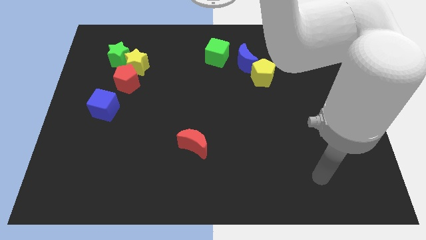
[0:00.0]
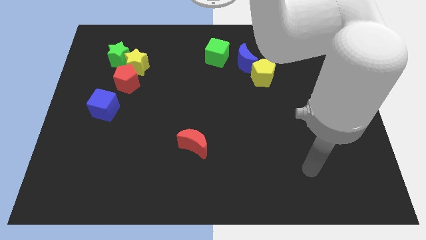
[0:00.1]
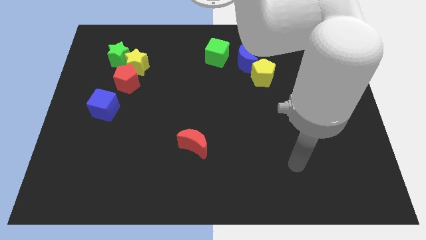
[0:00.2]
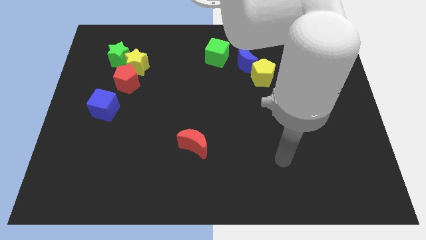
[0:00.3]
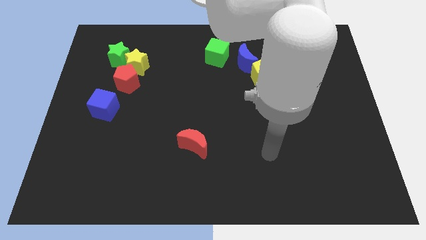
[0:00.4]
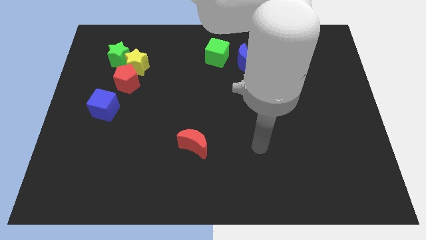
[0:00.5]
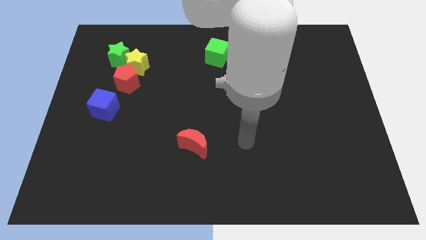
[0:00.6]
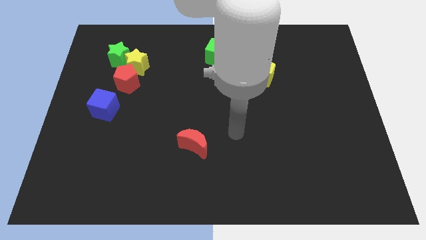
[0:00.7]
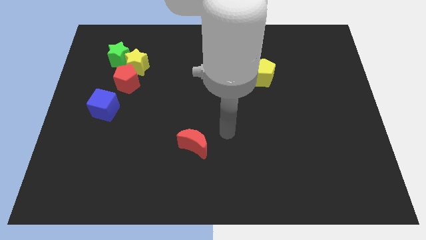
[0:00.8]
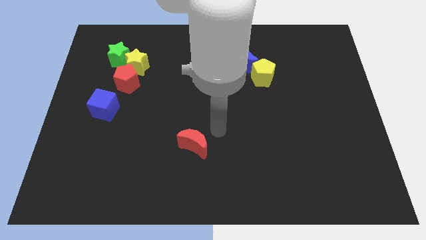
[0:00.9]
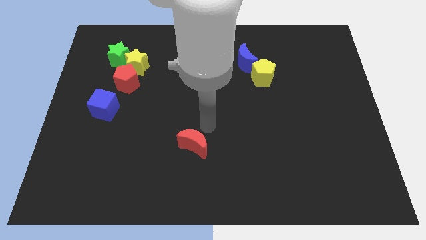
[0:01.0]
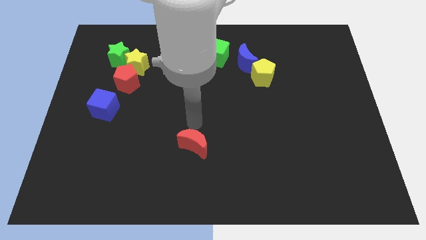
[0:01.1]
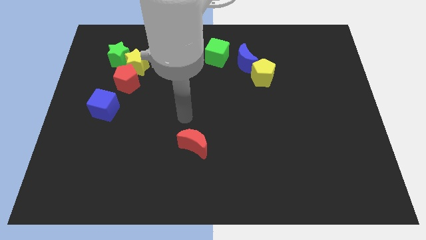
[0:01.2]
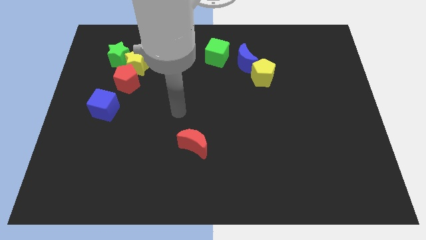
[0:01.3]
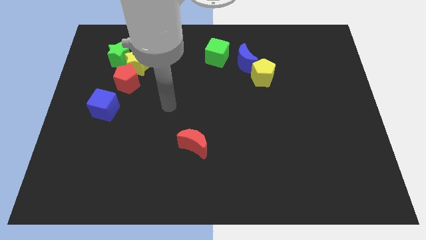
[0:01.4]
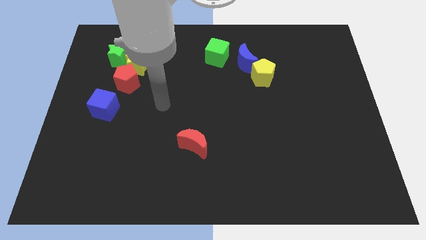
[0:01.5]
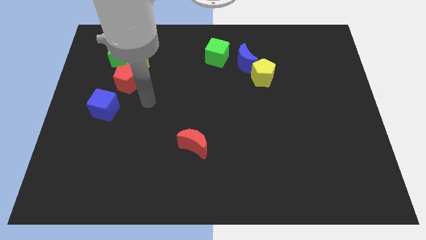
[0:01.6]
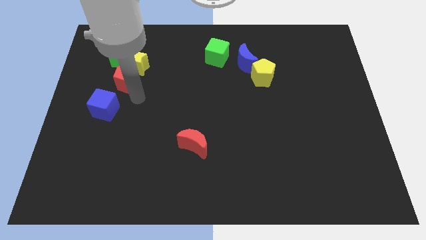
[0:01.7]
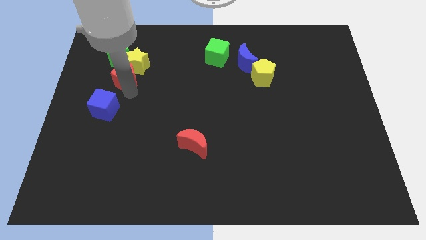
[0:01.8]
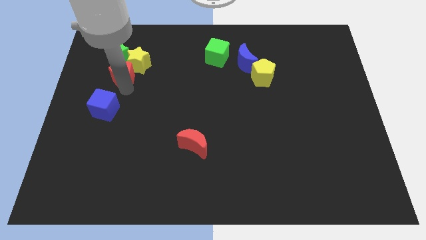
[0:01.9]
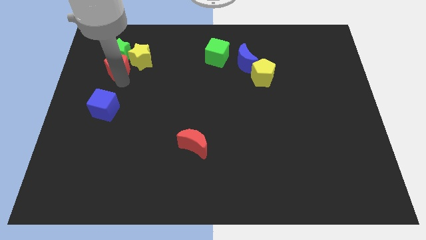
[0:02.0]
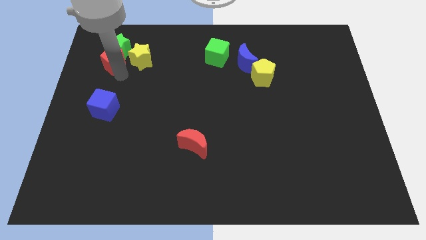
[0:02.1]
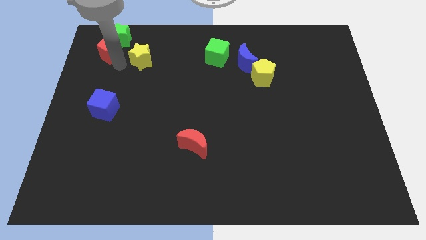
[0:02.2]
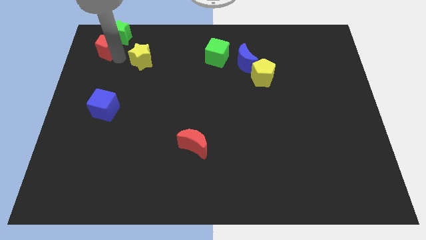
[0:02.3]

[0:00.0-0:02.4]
move the yellow star away from the red pentagon and green star

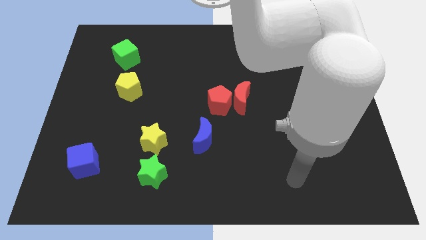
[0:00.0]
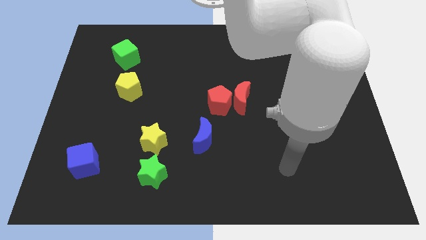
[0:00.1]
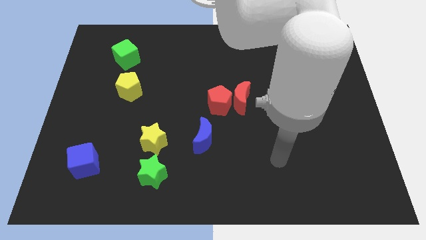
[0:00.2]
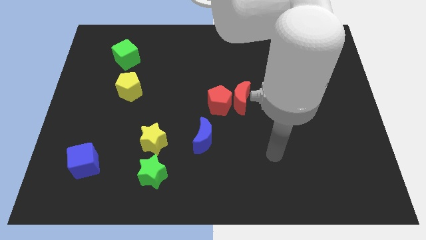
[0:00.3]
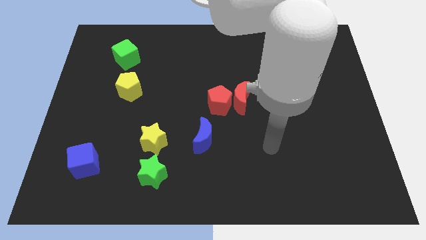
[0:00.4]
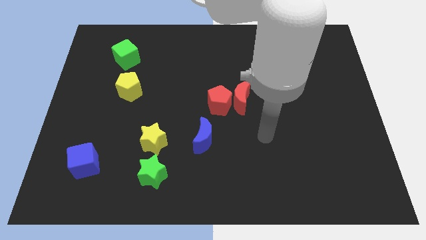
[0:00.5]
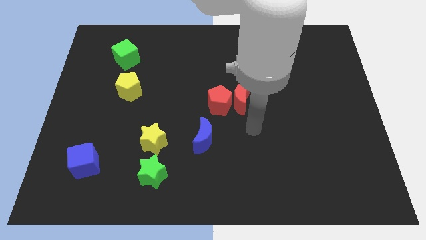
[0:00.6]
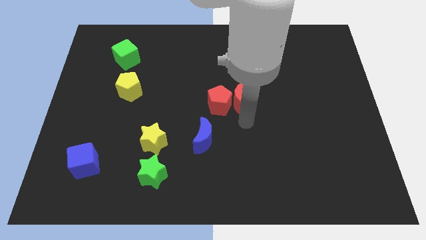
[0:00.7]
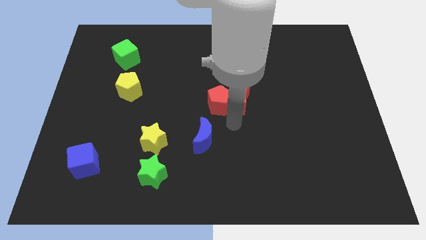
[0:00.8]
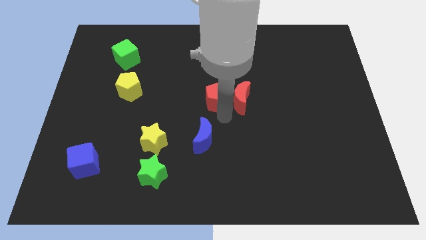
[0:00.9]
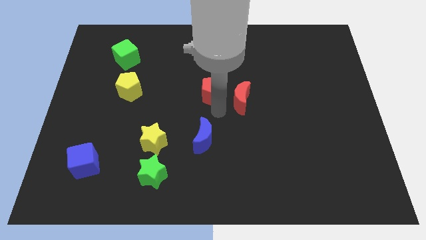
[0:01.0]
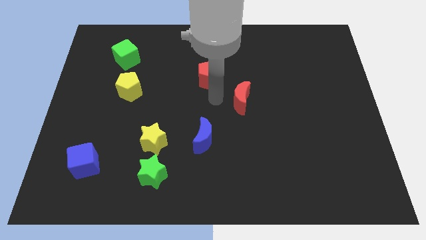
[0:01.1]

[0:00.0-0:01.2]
separate the red moon from the red pentagon

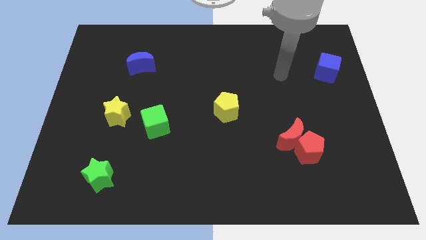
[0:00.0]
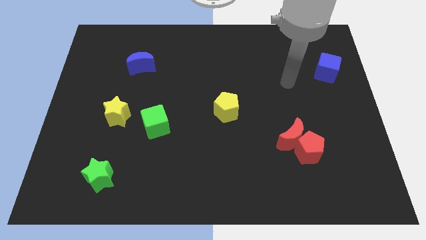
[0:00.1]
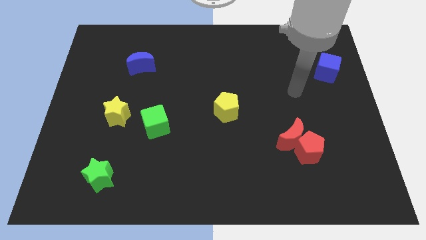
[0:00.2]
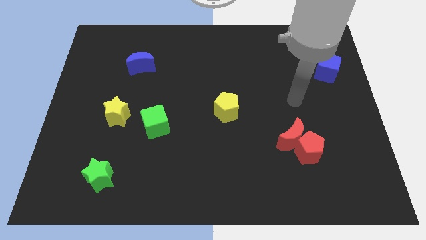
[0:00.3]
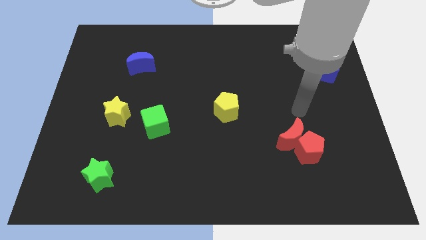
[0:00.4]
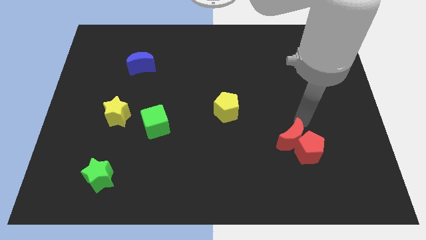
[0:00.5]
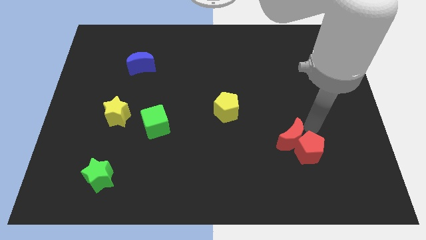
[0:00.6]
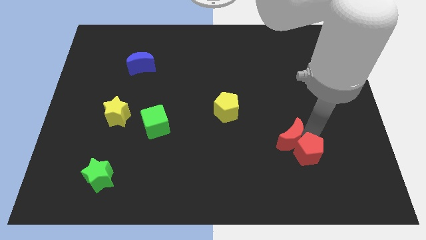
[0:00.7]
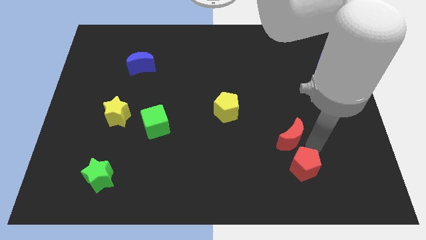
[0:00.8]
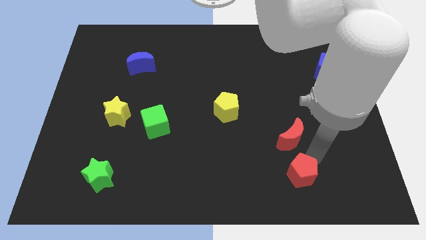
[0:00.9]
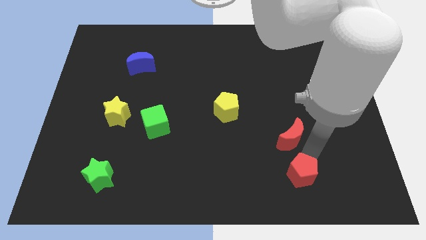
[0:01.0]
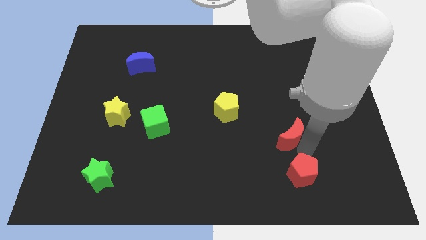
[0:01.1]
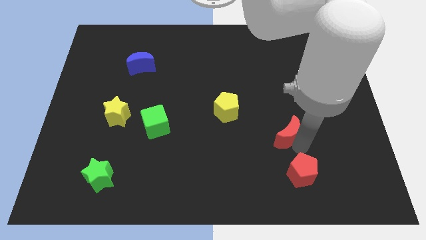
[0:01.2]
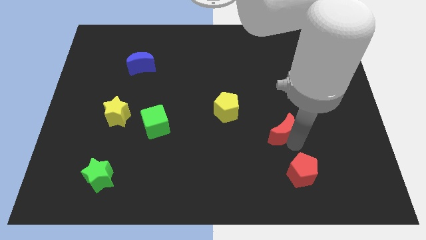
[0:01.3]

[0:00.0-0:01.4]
move the red moon away from the red pentagon

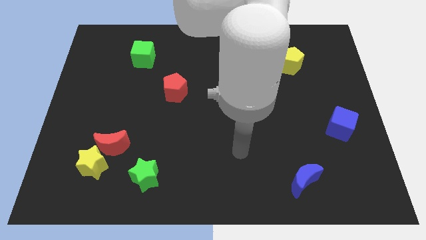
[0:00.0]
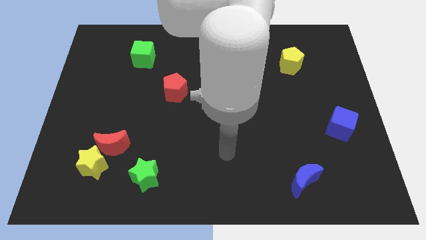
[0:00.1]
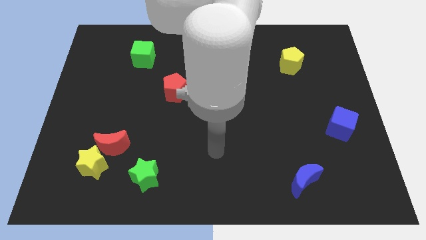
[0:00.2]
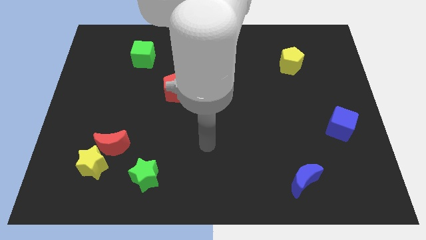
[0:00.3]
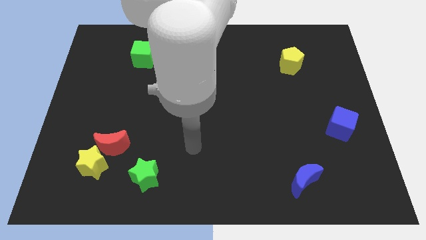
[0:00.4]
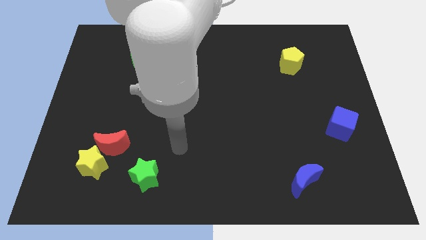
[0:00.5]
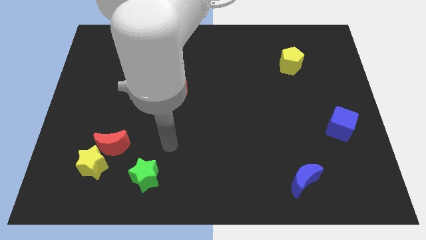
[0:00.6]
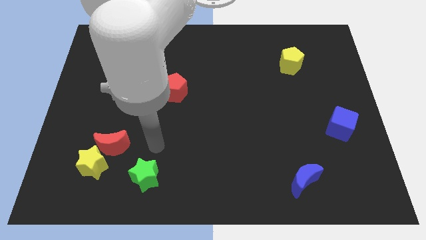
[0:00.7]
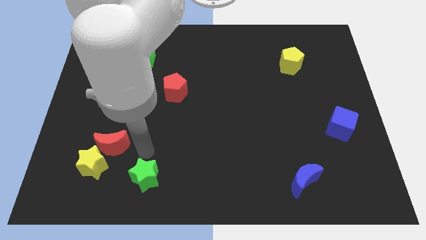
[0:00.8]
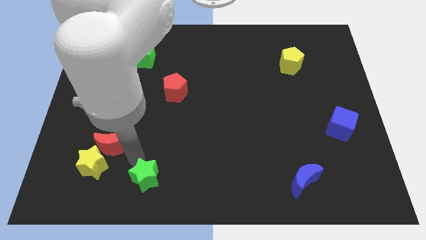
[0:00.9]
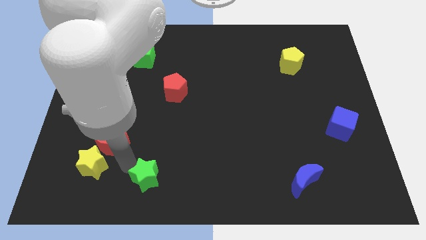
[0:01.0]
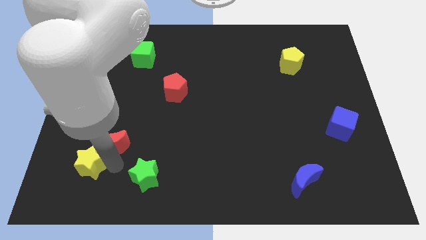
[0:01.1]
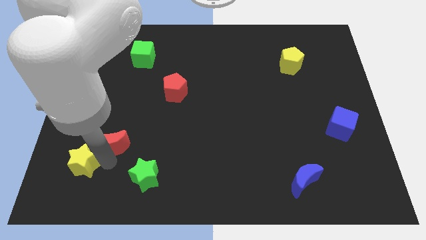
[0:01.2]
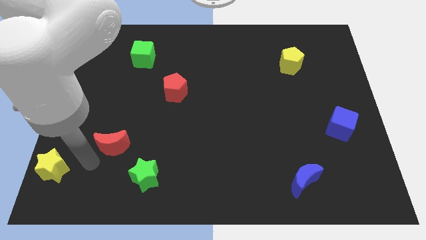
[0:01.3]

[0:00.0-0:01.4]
move the red moon away from the yellow star

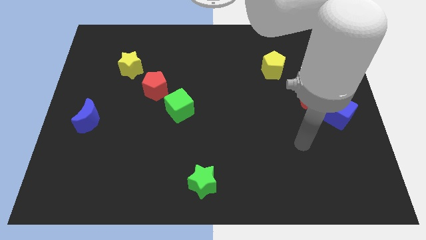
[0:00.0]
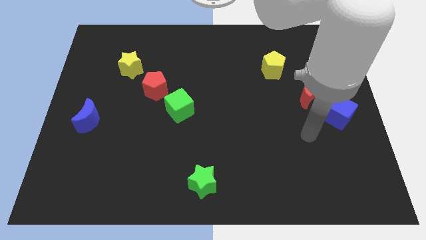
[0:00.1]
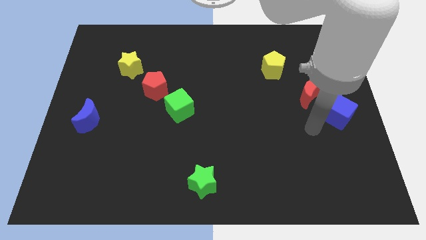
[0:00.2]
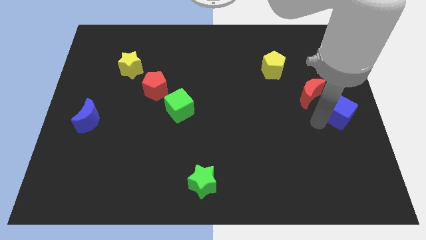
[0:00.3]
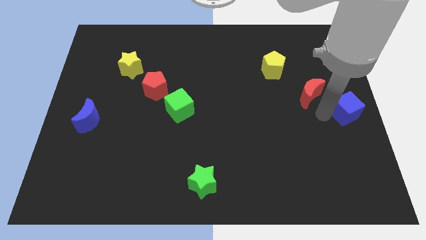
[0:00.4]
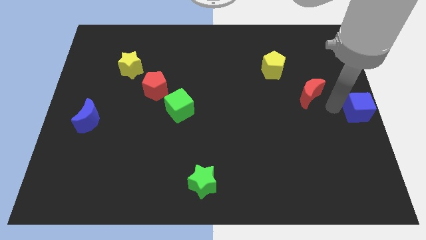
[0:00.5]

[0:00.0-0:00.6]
move the red moon away from the blue cube

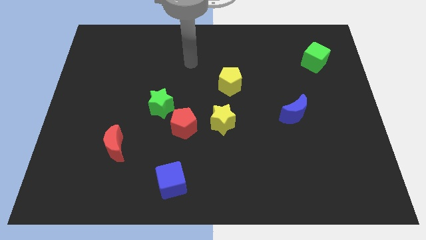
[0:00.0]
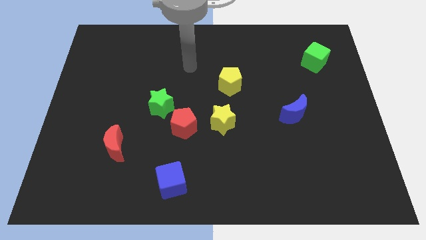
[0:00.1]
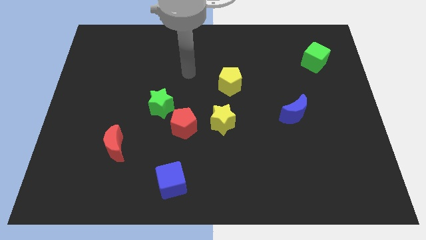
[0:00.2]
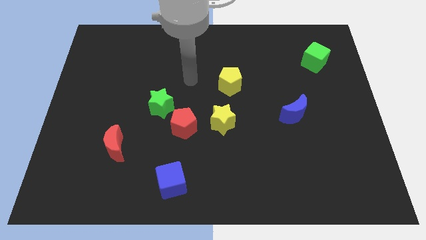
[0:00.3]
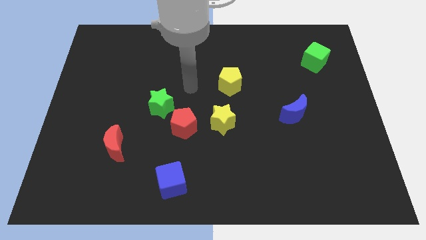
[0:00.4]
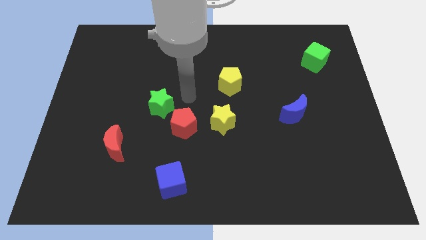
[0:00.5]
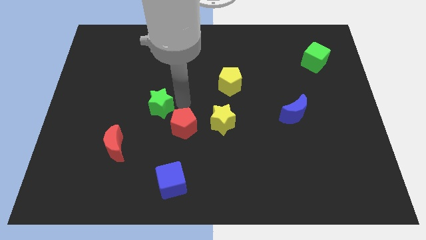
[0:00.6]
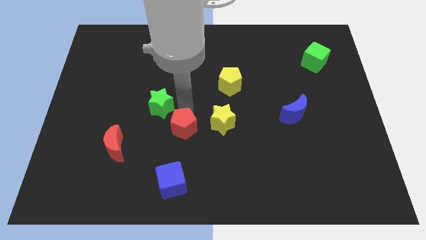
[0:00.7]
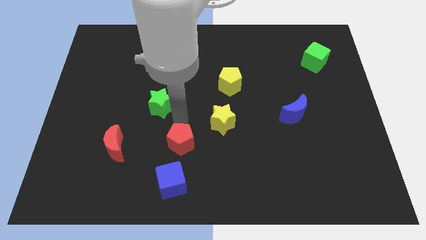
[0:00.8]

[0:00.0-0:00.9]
pull the green star apart from the red pentagon

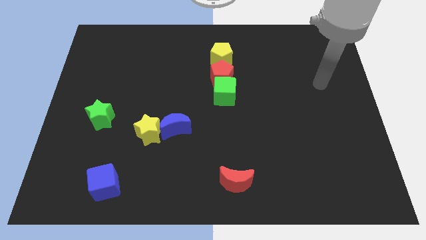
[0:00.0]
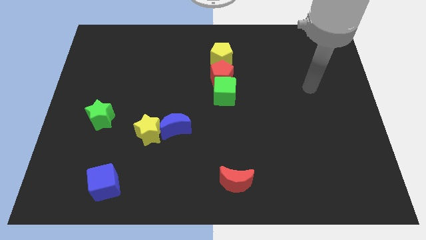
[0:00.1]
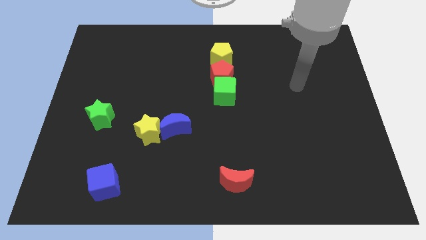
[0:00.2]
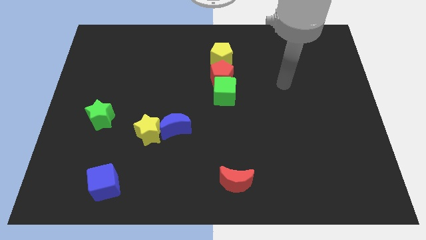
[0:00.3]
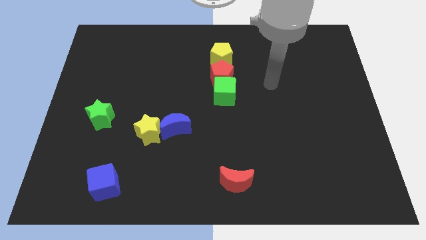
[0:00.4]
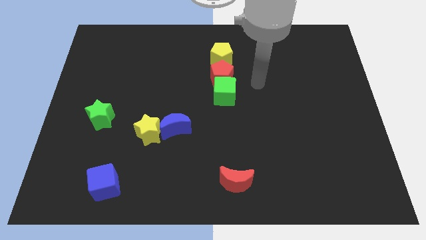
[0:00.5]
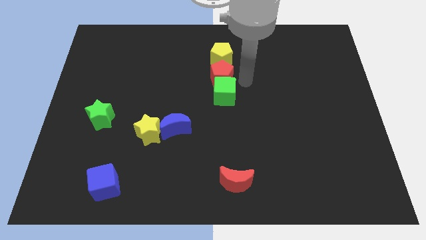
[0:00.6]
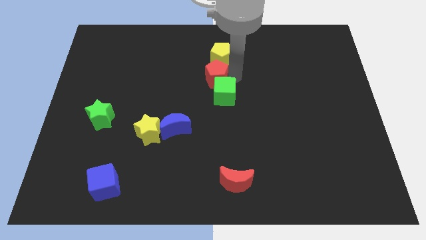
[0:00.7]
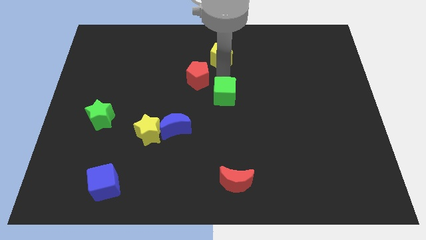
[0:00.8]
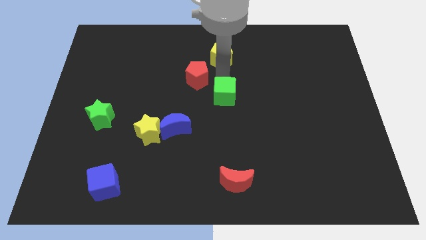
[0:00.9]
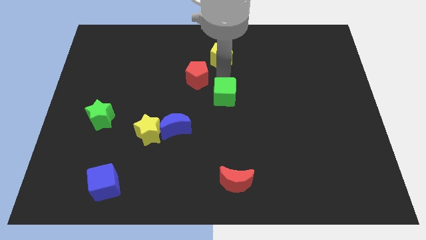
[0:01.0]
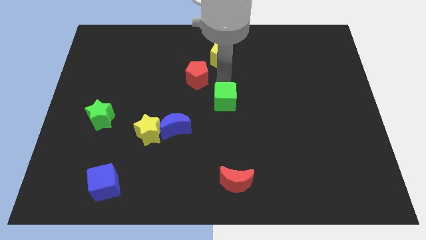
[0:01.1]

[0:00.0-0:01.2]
move the green cube away from the red pentagon

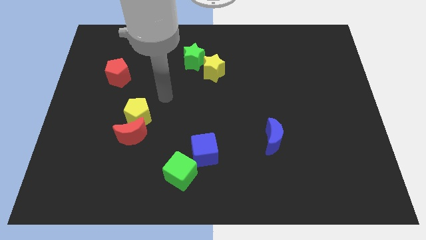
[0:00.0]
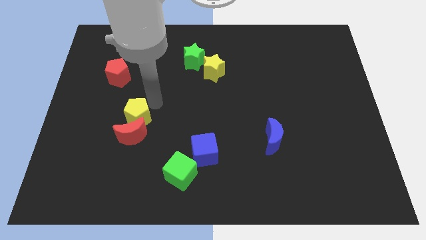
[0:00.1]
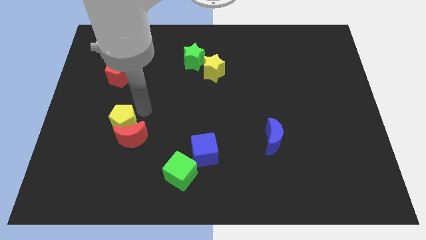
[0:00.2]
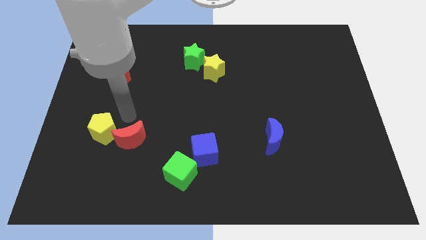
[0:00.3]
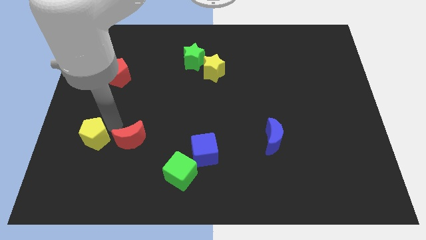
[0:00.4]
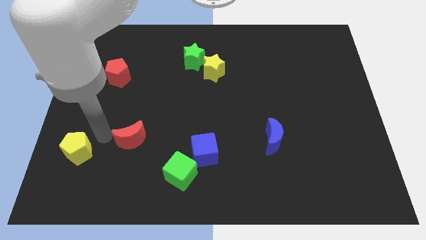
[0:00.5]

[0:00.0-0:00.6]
separate the red moon from the yellow pentagon
